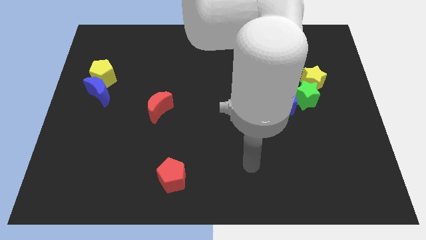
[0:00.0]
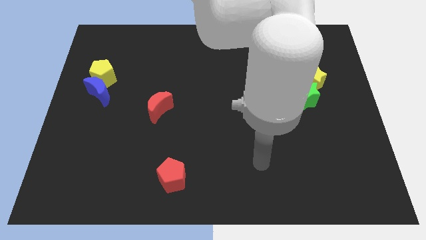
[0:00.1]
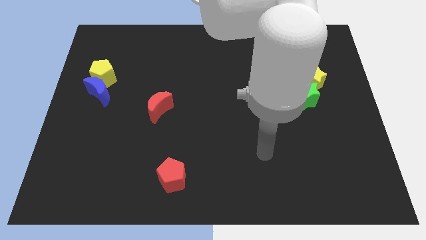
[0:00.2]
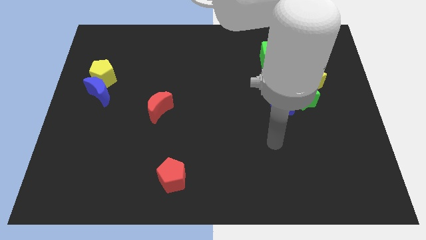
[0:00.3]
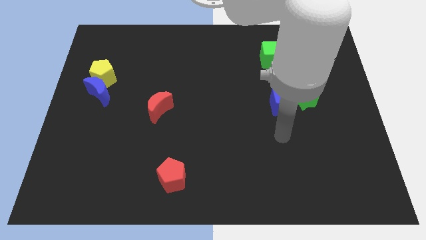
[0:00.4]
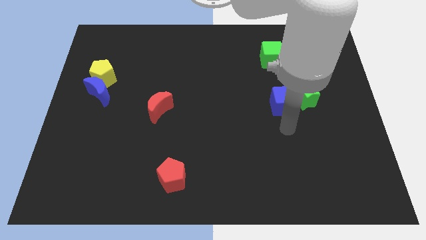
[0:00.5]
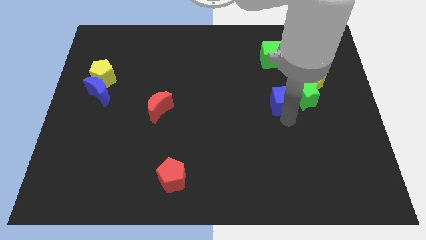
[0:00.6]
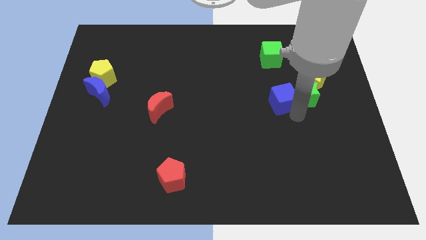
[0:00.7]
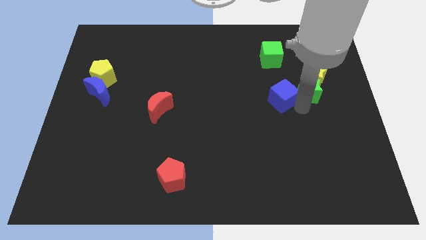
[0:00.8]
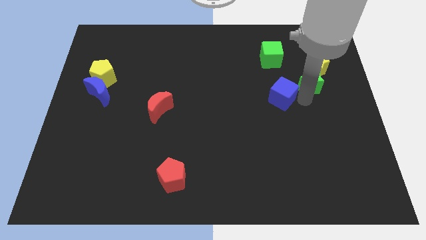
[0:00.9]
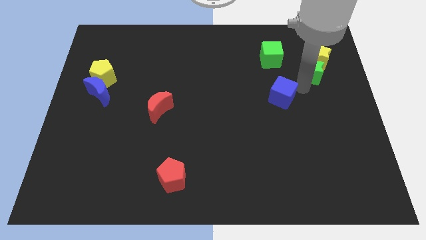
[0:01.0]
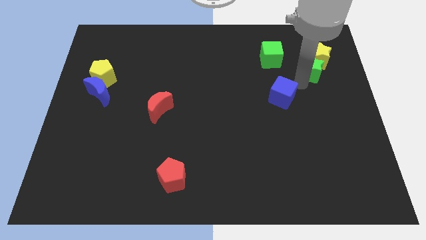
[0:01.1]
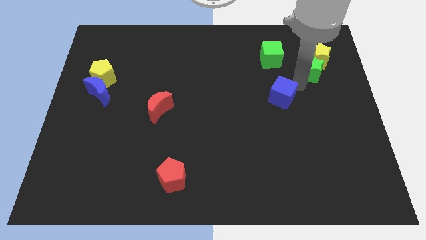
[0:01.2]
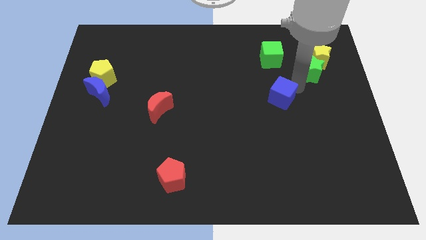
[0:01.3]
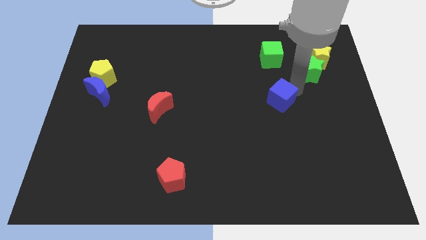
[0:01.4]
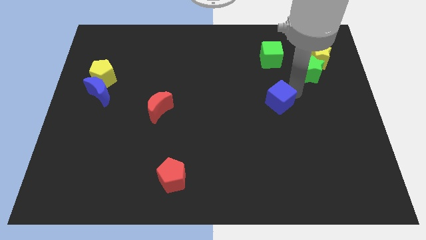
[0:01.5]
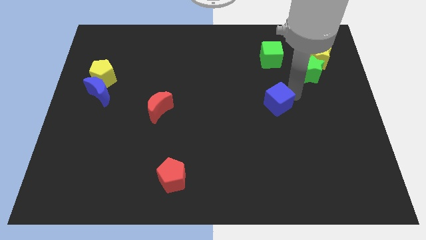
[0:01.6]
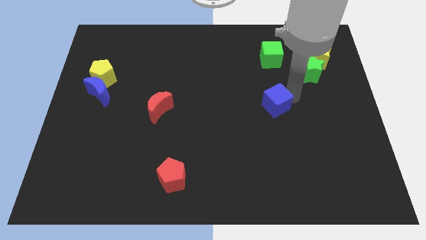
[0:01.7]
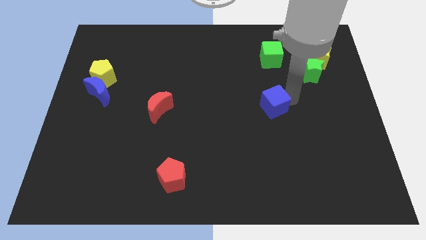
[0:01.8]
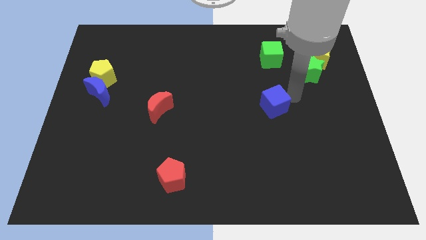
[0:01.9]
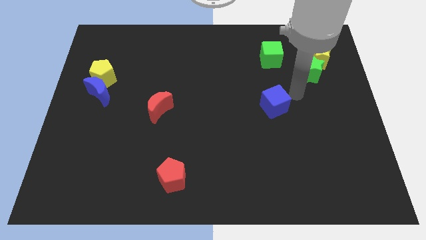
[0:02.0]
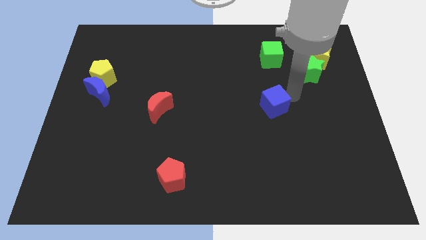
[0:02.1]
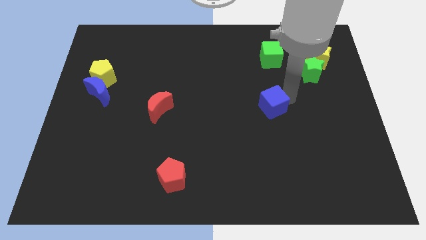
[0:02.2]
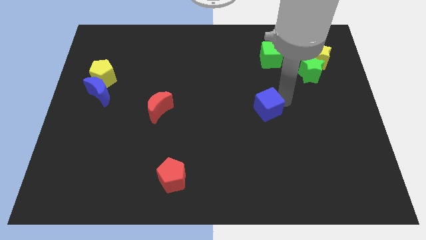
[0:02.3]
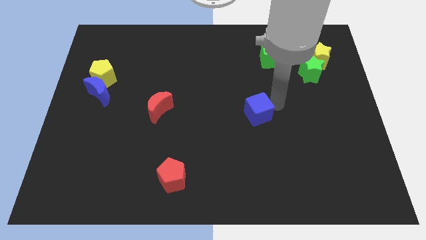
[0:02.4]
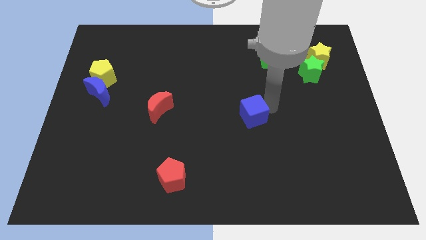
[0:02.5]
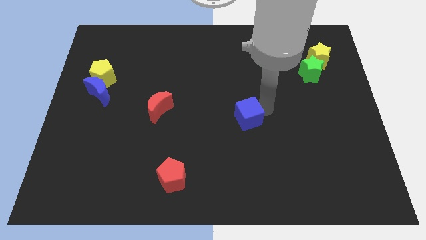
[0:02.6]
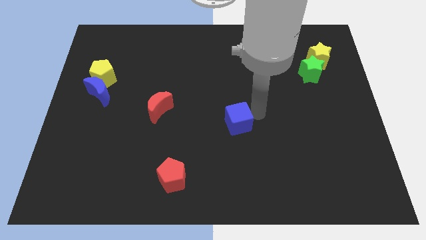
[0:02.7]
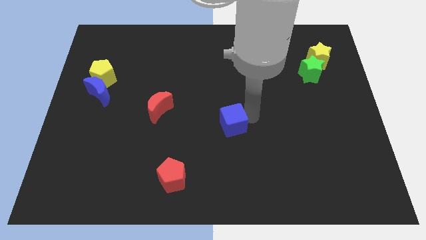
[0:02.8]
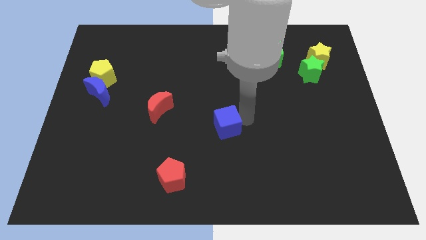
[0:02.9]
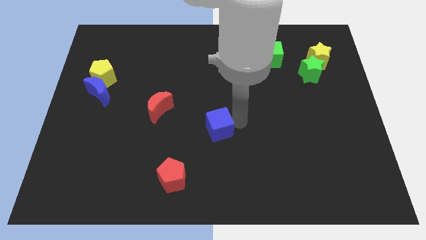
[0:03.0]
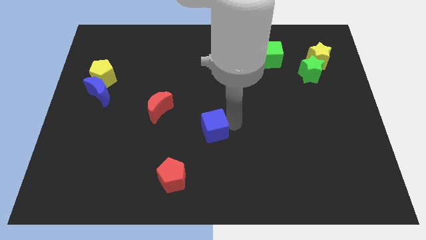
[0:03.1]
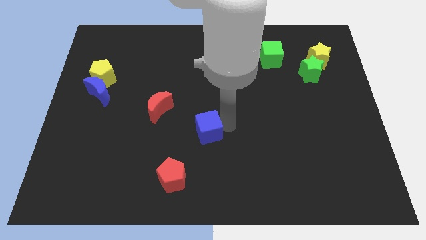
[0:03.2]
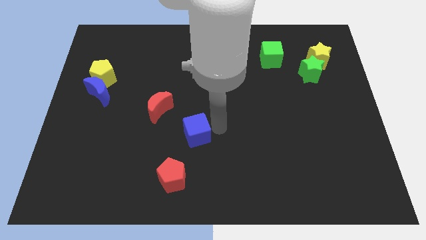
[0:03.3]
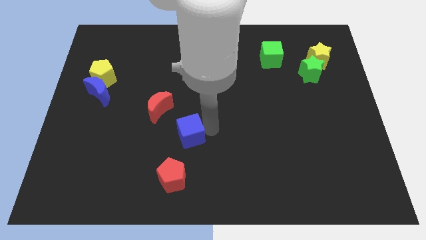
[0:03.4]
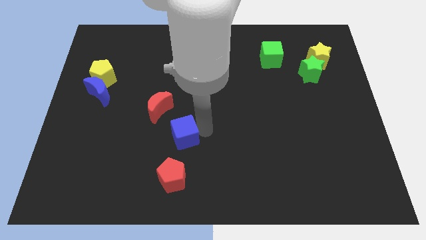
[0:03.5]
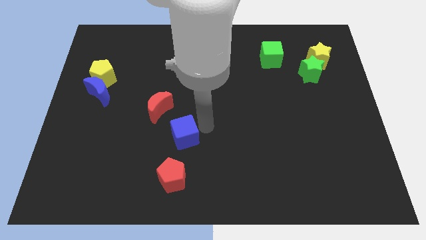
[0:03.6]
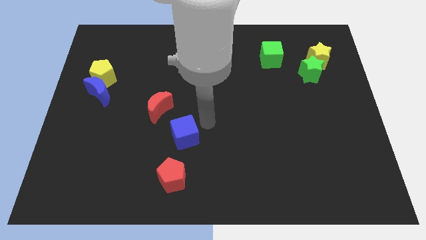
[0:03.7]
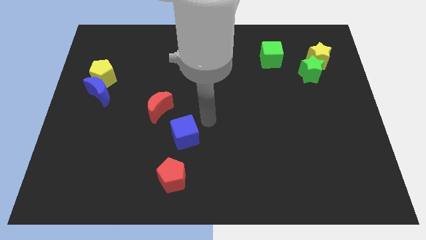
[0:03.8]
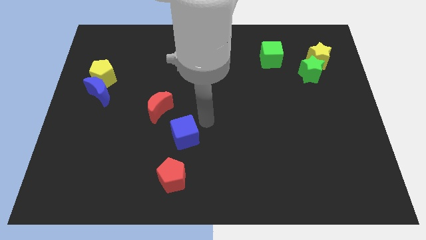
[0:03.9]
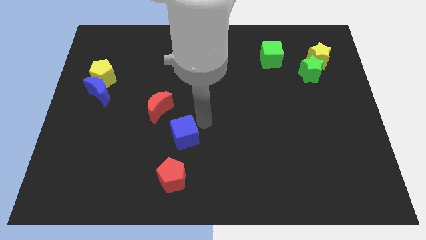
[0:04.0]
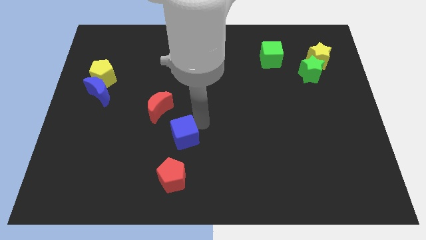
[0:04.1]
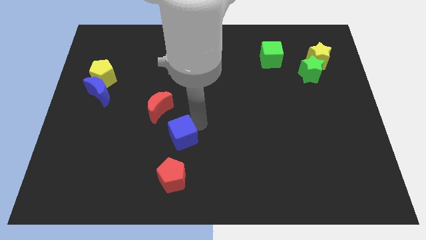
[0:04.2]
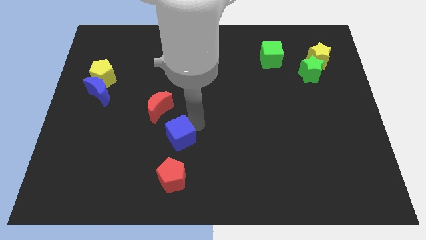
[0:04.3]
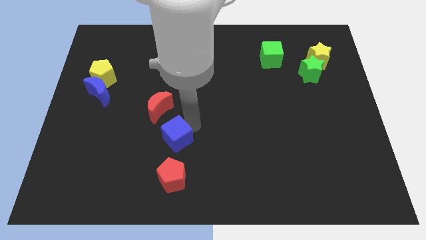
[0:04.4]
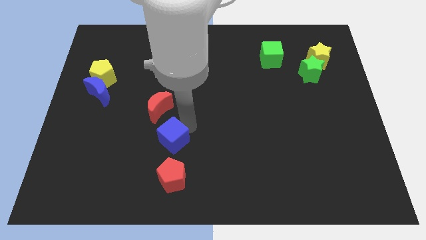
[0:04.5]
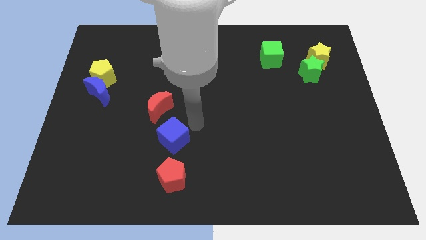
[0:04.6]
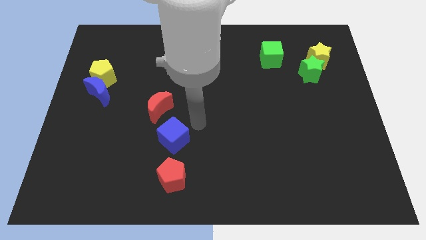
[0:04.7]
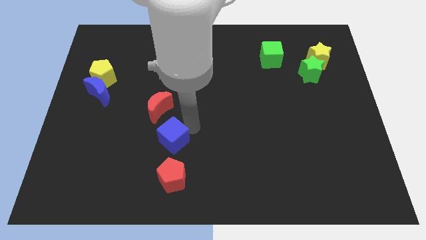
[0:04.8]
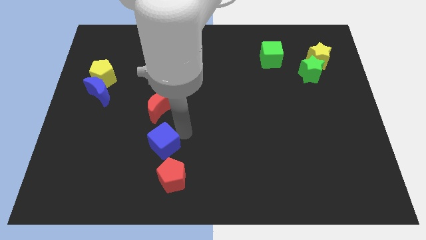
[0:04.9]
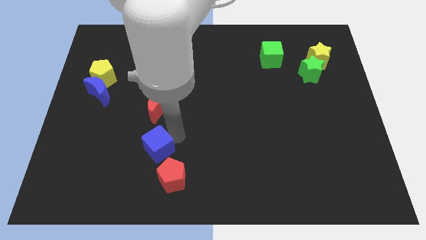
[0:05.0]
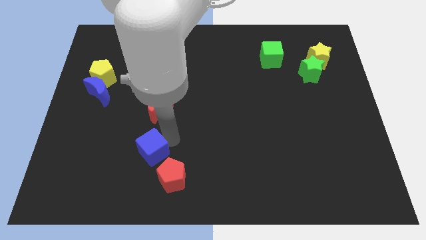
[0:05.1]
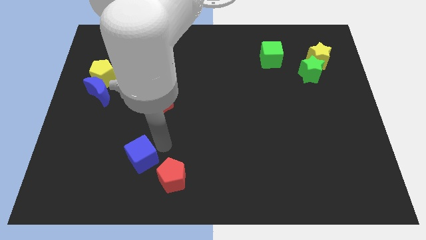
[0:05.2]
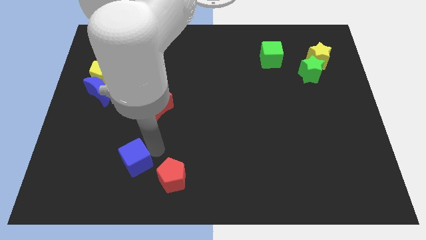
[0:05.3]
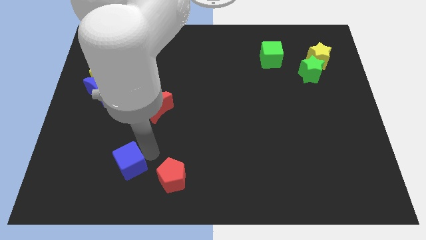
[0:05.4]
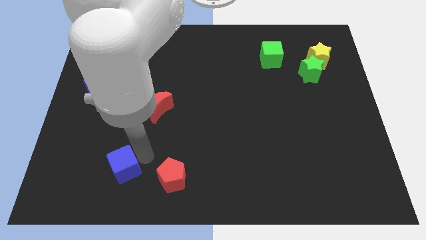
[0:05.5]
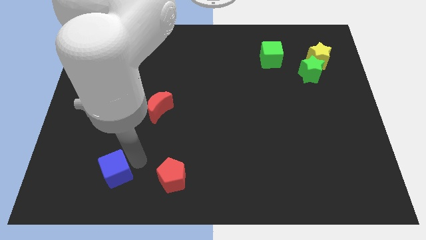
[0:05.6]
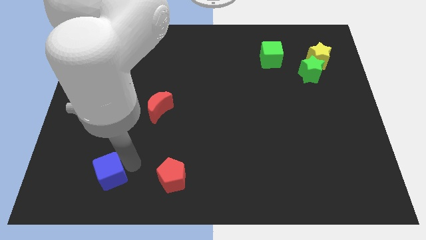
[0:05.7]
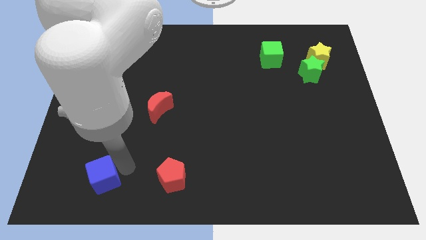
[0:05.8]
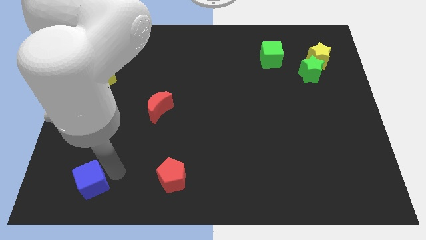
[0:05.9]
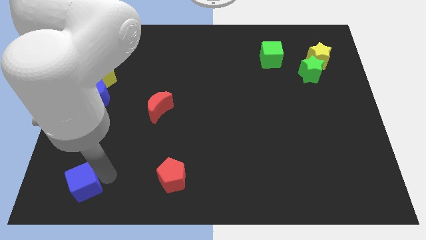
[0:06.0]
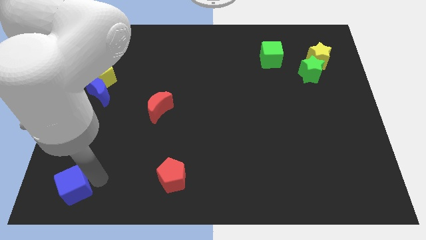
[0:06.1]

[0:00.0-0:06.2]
move the blue cube to the bottom left of the board

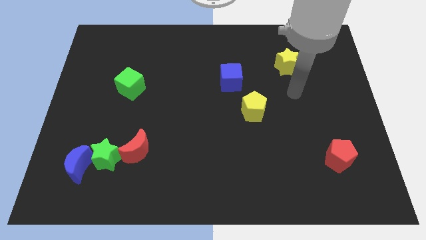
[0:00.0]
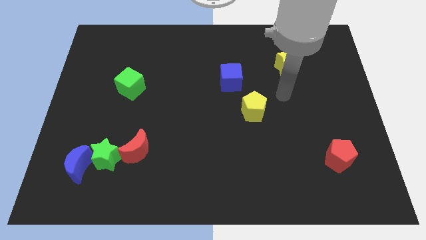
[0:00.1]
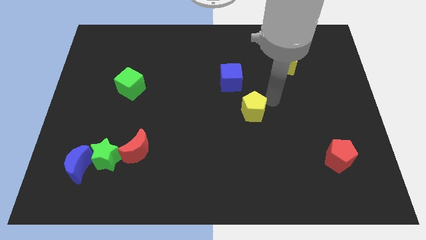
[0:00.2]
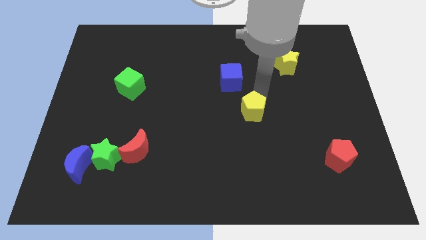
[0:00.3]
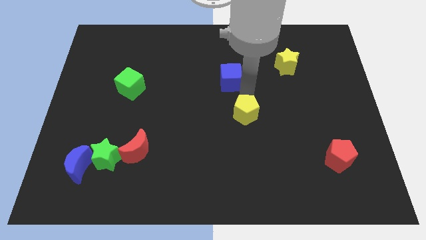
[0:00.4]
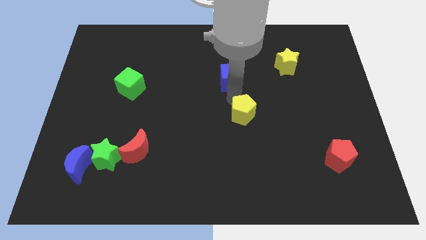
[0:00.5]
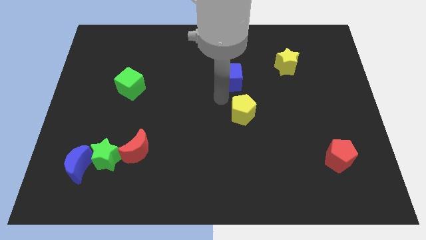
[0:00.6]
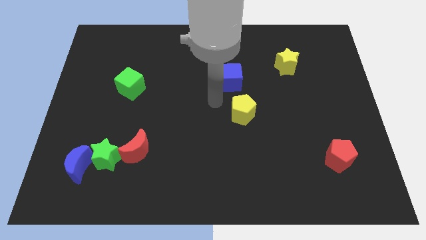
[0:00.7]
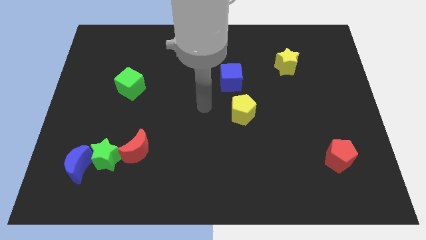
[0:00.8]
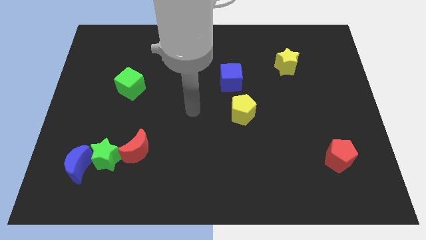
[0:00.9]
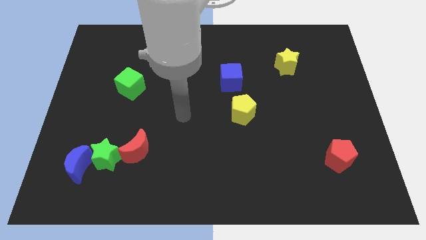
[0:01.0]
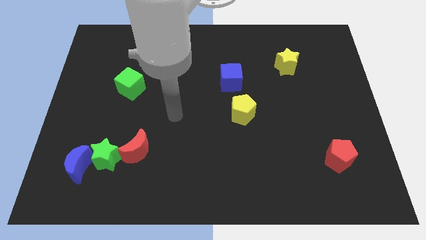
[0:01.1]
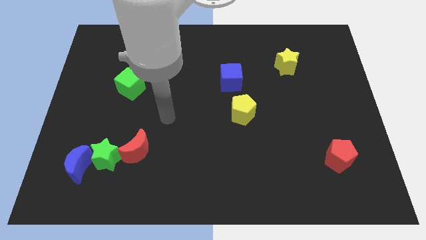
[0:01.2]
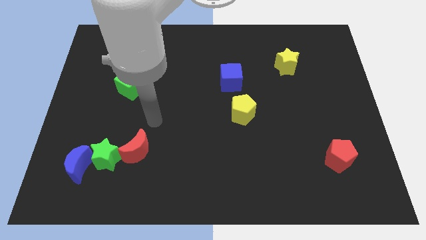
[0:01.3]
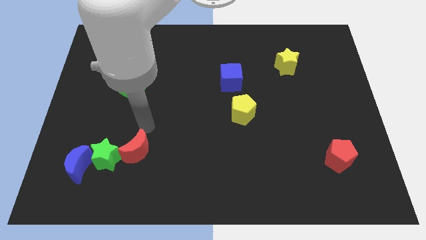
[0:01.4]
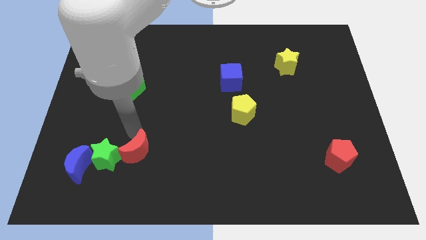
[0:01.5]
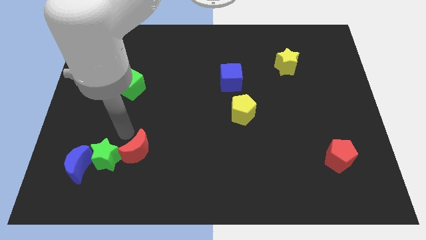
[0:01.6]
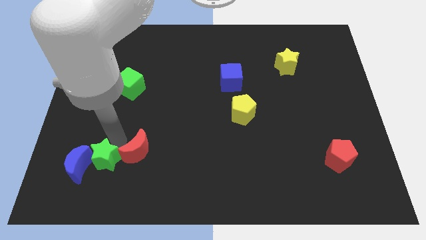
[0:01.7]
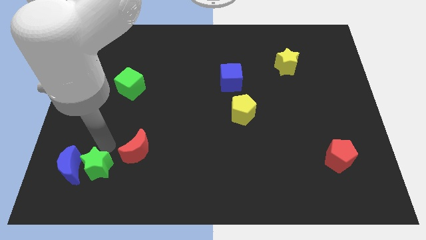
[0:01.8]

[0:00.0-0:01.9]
move the blue moon to the lower left corner
